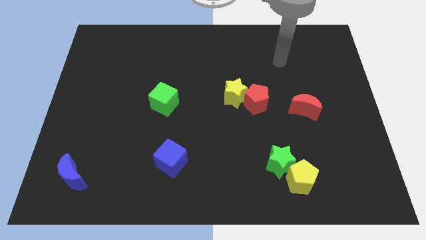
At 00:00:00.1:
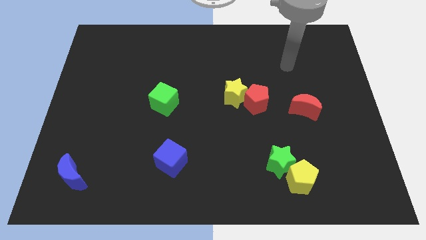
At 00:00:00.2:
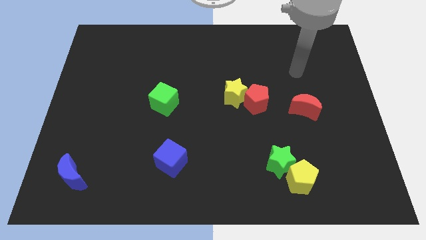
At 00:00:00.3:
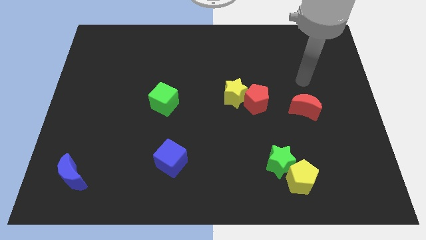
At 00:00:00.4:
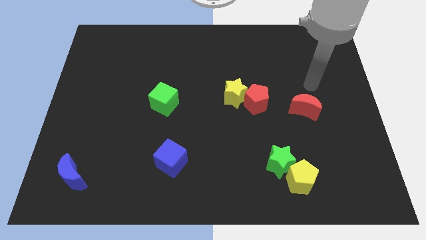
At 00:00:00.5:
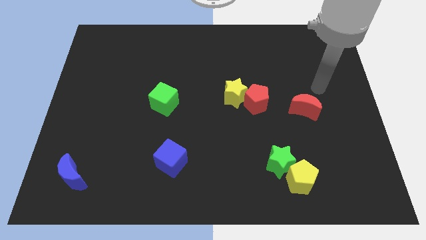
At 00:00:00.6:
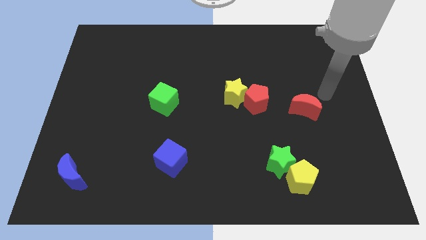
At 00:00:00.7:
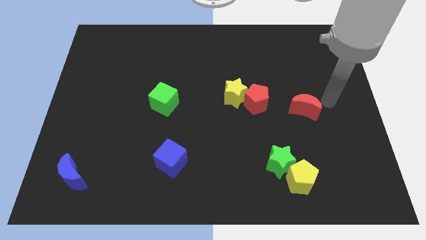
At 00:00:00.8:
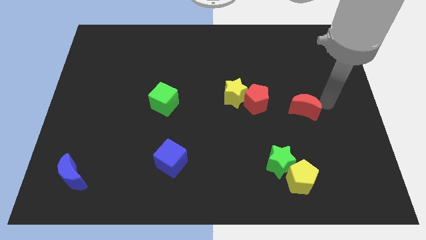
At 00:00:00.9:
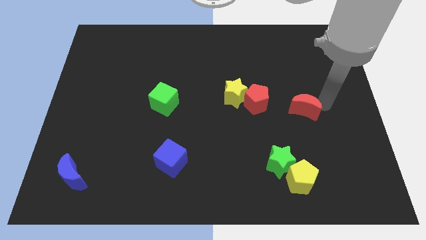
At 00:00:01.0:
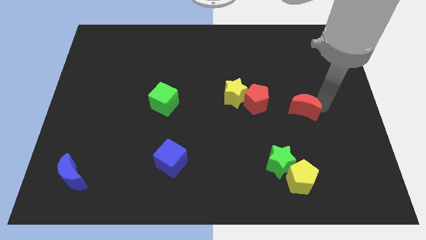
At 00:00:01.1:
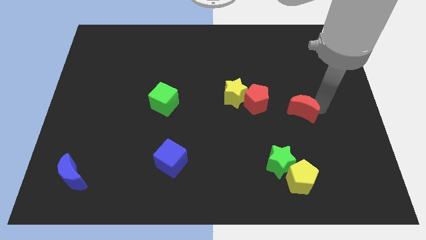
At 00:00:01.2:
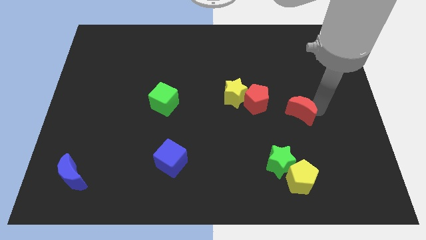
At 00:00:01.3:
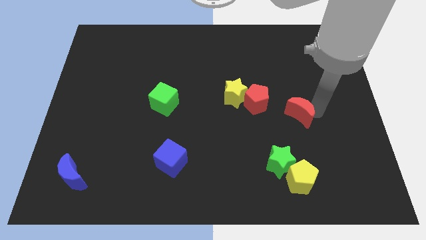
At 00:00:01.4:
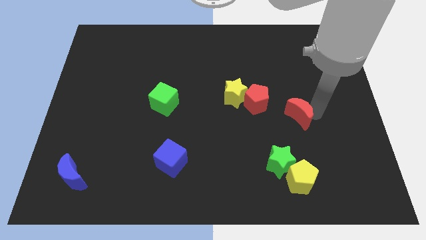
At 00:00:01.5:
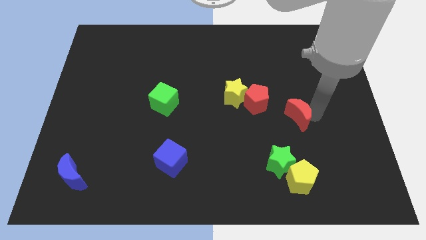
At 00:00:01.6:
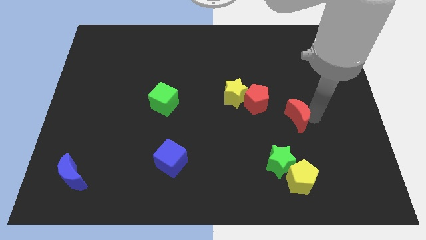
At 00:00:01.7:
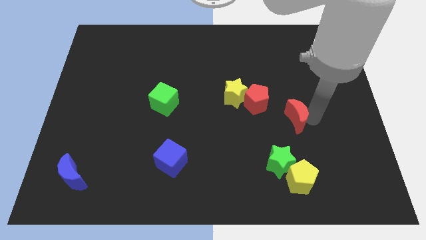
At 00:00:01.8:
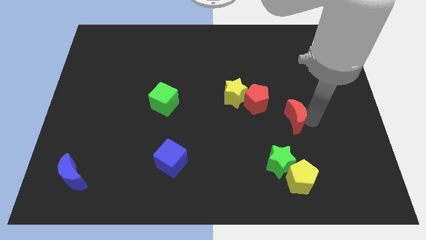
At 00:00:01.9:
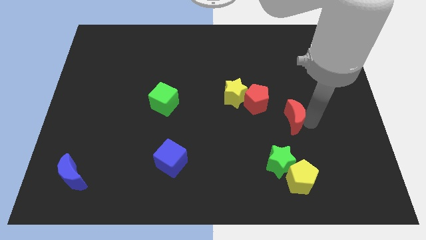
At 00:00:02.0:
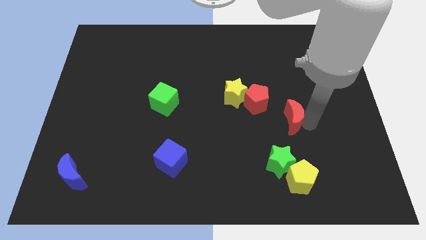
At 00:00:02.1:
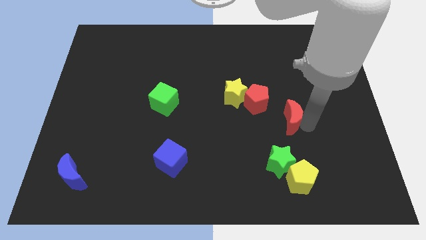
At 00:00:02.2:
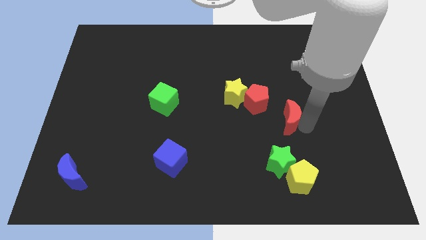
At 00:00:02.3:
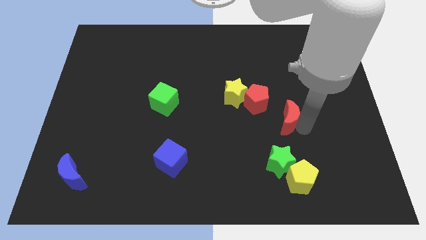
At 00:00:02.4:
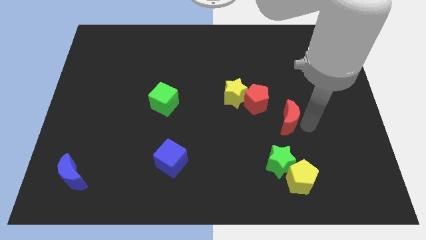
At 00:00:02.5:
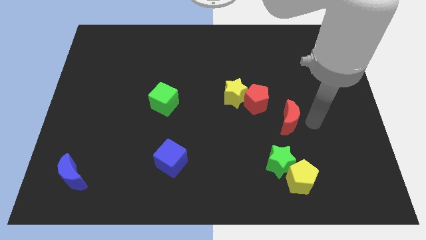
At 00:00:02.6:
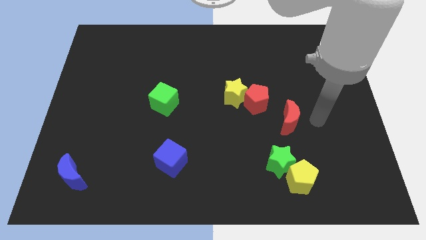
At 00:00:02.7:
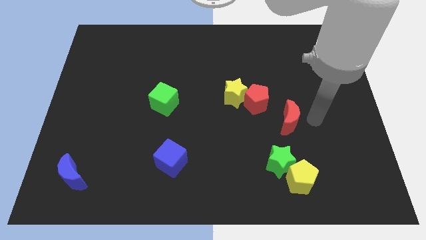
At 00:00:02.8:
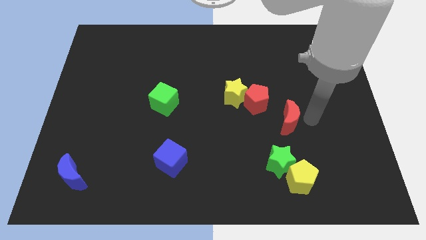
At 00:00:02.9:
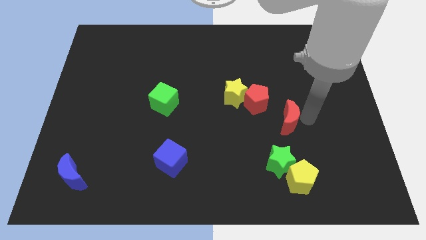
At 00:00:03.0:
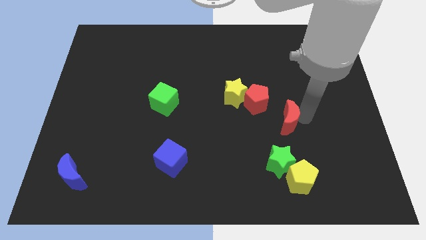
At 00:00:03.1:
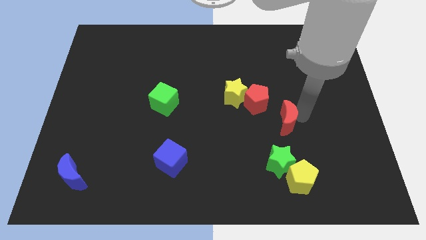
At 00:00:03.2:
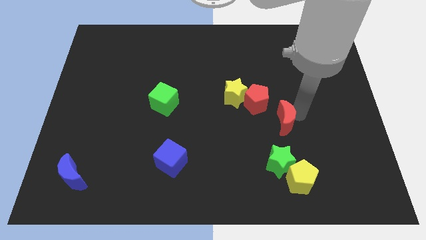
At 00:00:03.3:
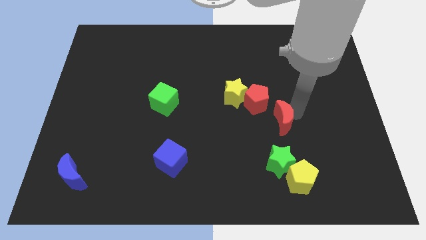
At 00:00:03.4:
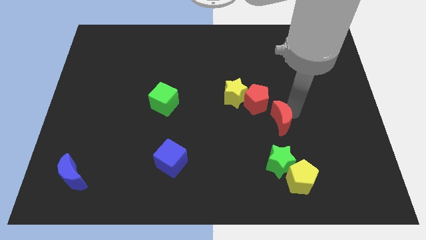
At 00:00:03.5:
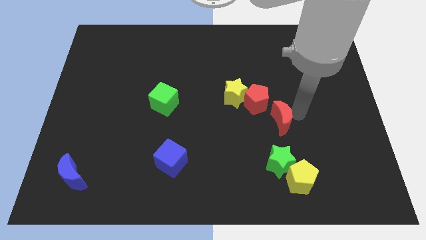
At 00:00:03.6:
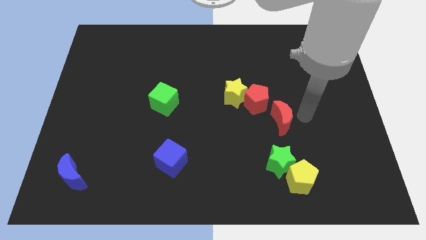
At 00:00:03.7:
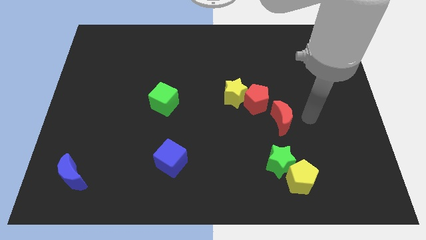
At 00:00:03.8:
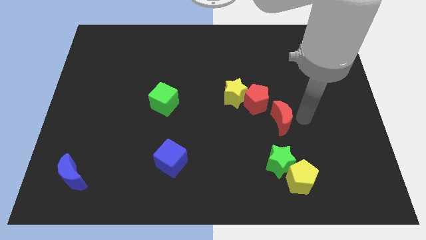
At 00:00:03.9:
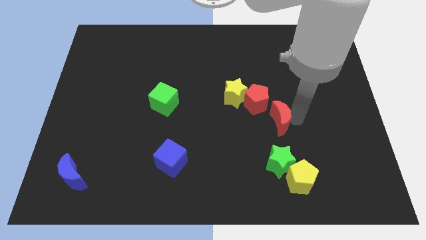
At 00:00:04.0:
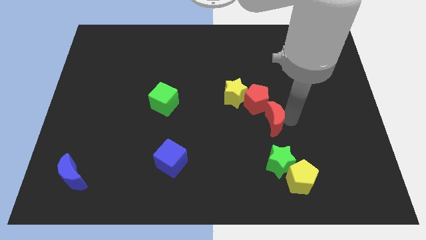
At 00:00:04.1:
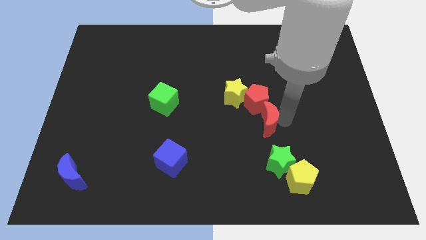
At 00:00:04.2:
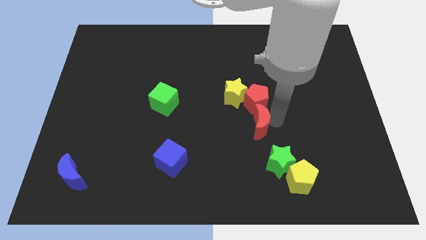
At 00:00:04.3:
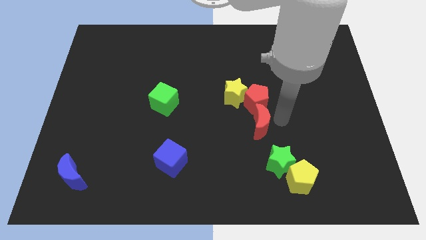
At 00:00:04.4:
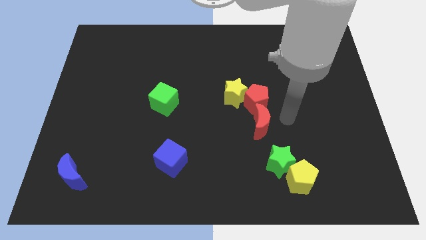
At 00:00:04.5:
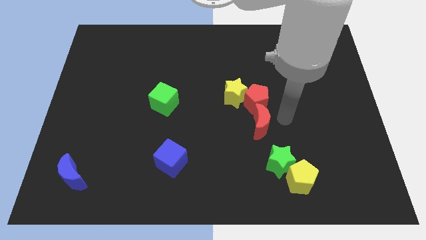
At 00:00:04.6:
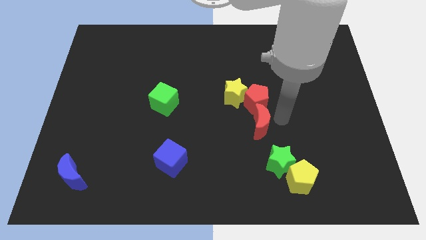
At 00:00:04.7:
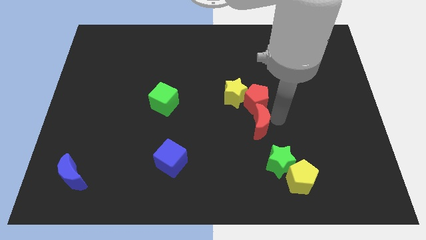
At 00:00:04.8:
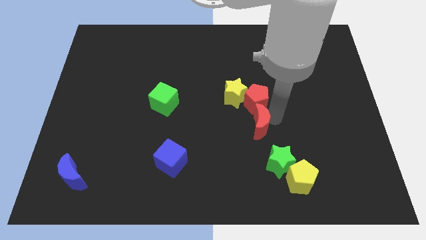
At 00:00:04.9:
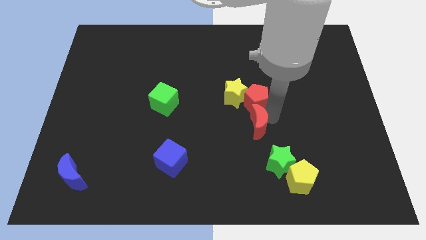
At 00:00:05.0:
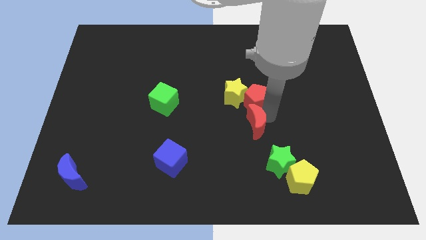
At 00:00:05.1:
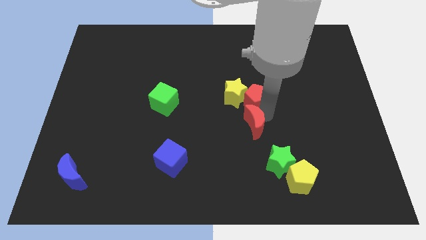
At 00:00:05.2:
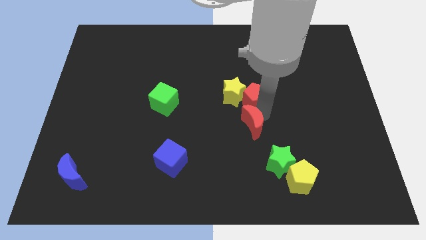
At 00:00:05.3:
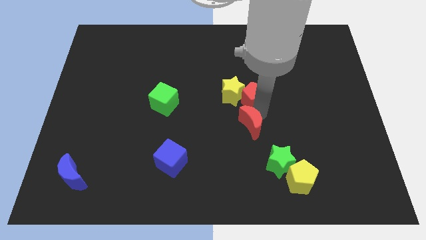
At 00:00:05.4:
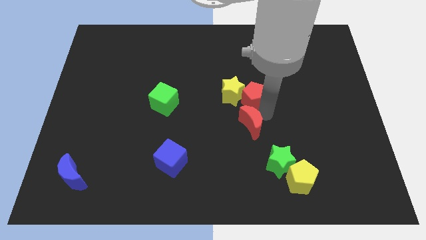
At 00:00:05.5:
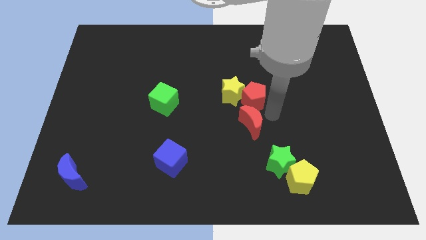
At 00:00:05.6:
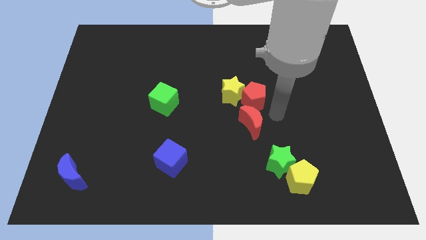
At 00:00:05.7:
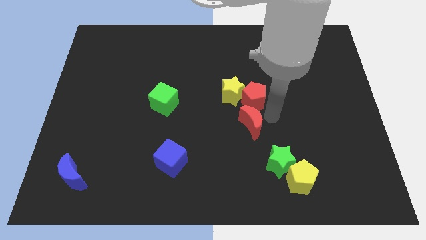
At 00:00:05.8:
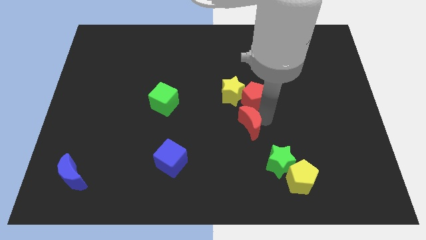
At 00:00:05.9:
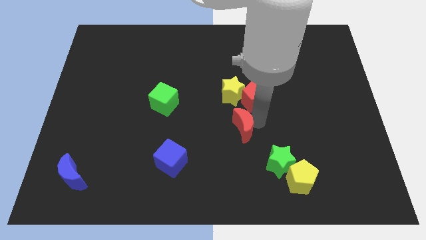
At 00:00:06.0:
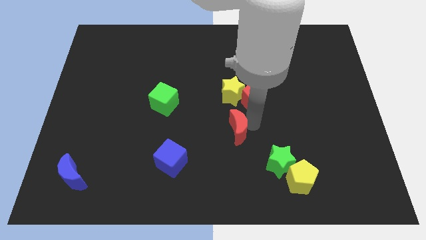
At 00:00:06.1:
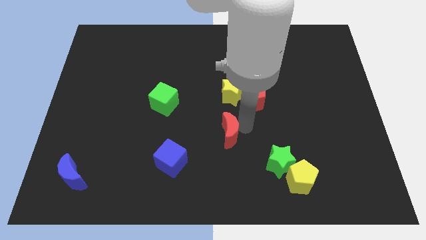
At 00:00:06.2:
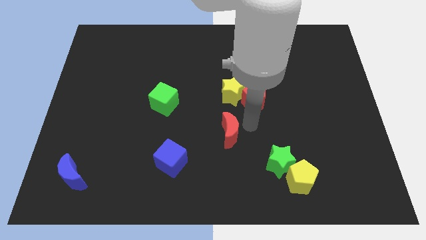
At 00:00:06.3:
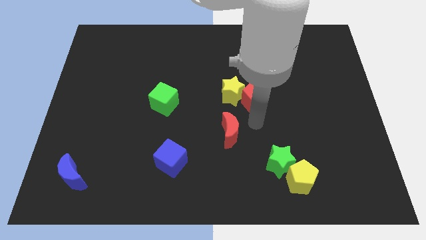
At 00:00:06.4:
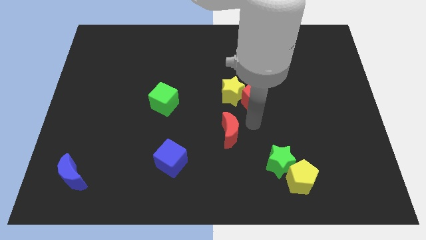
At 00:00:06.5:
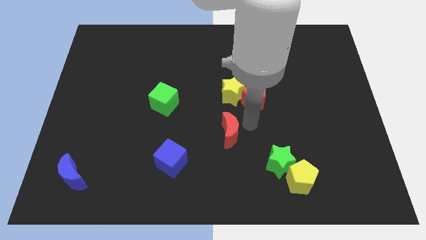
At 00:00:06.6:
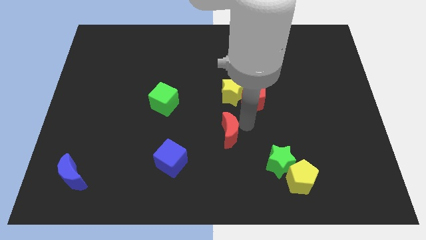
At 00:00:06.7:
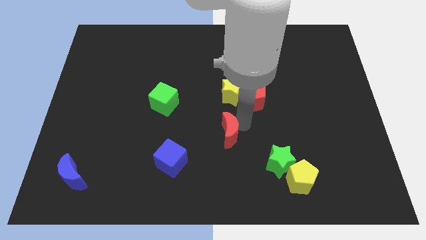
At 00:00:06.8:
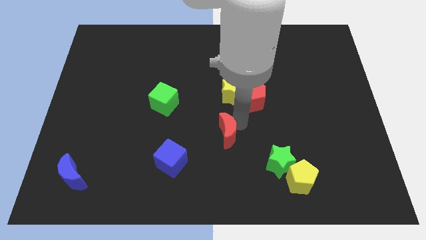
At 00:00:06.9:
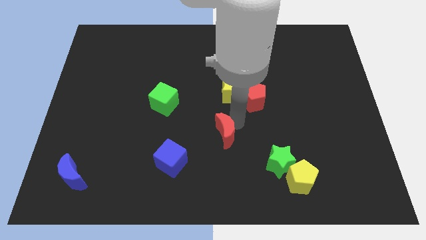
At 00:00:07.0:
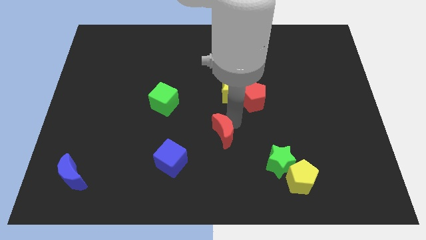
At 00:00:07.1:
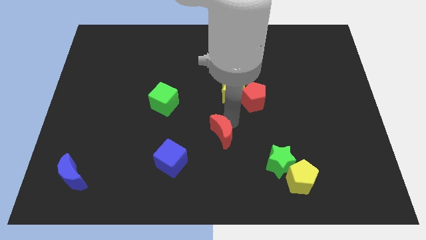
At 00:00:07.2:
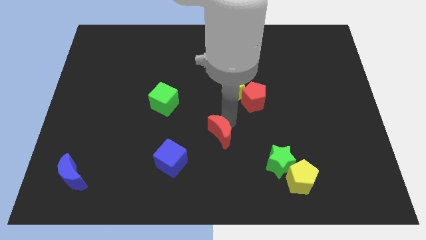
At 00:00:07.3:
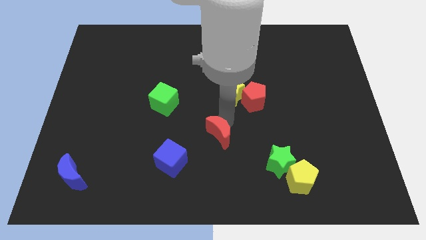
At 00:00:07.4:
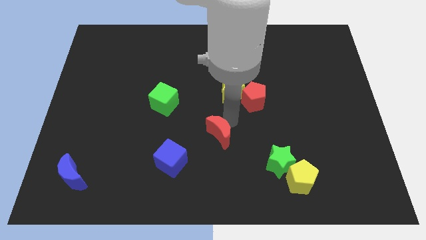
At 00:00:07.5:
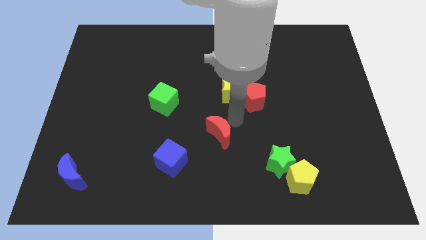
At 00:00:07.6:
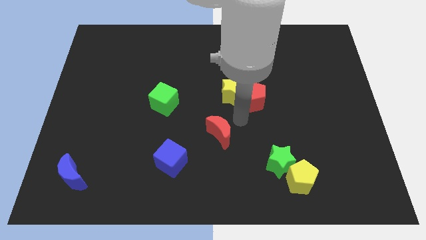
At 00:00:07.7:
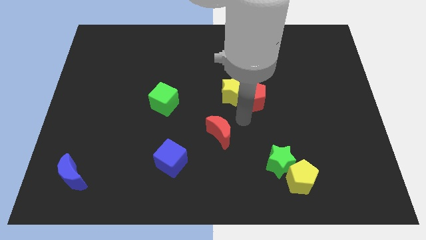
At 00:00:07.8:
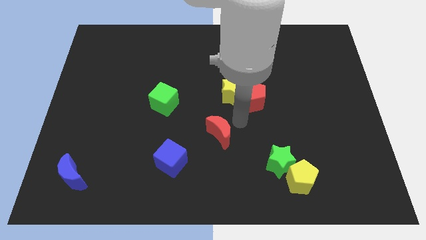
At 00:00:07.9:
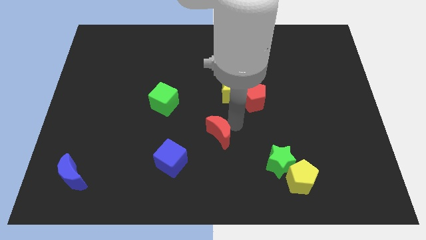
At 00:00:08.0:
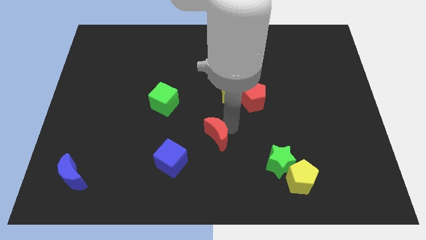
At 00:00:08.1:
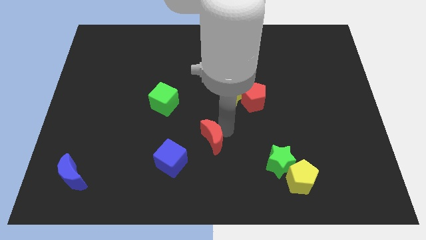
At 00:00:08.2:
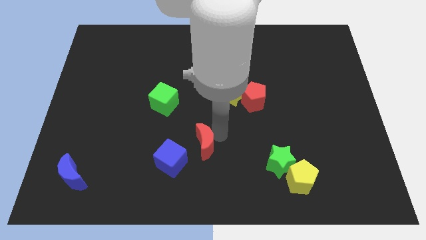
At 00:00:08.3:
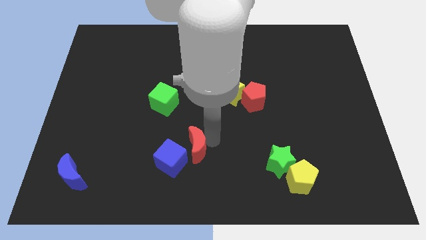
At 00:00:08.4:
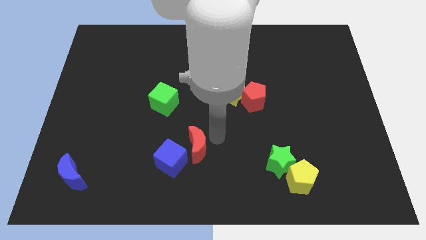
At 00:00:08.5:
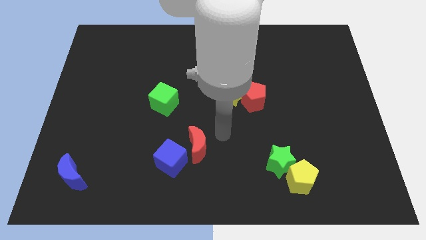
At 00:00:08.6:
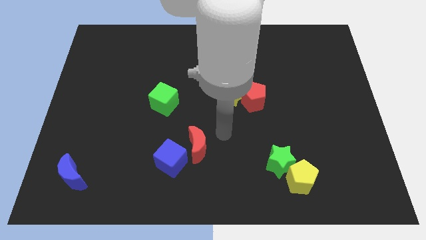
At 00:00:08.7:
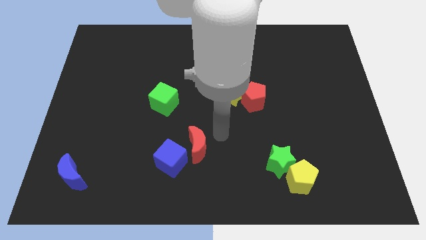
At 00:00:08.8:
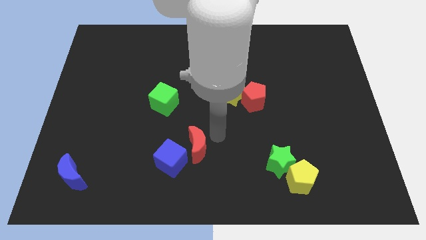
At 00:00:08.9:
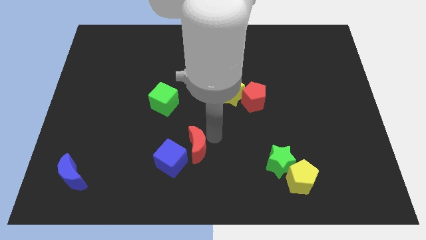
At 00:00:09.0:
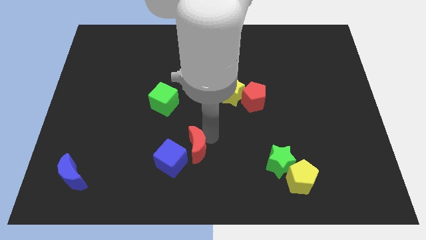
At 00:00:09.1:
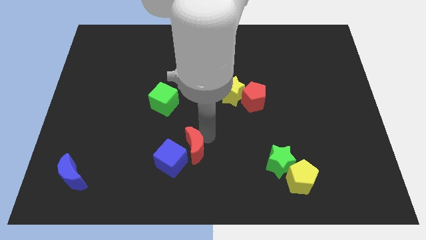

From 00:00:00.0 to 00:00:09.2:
move the red moon towards the blue cube
